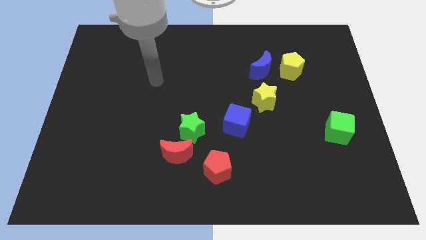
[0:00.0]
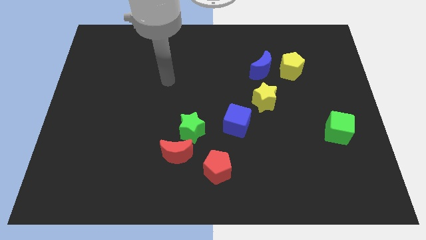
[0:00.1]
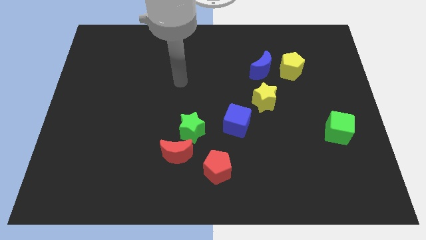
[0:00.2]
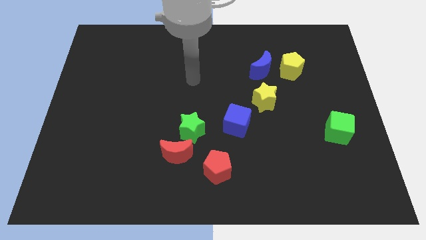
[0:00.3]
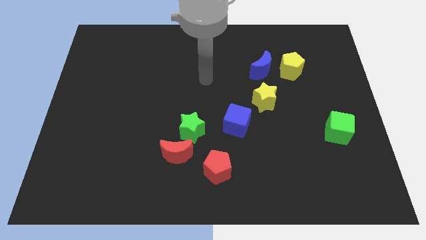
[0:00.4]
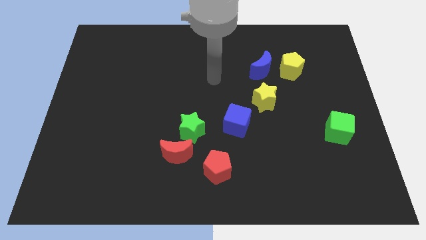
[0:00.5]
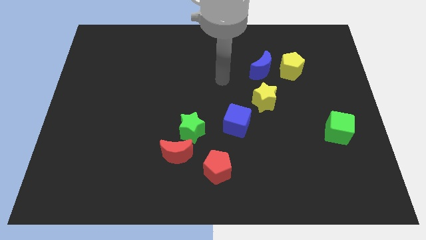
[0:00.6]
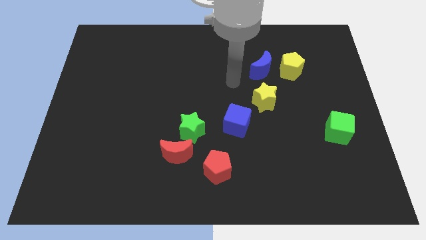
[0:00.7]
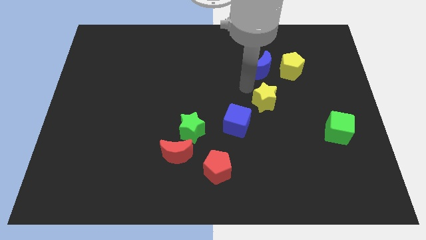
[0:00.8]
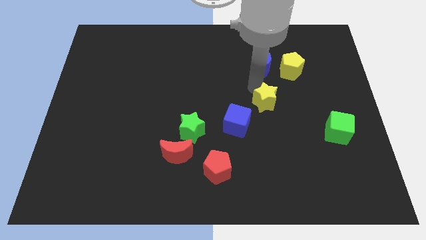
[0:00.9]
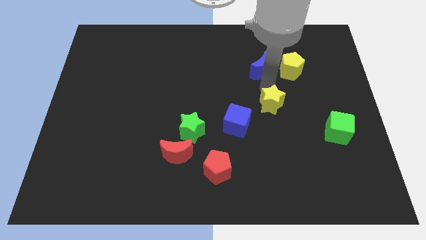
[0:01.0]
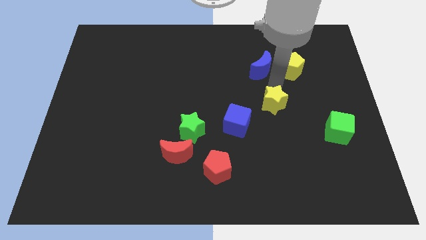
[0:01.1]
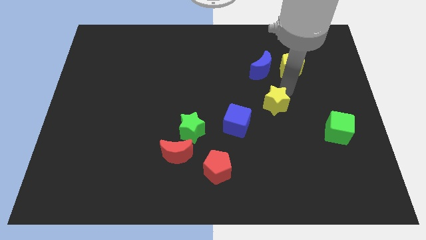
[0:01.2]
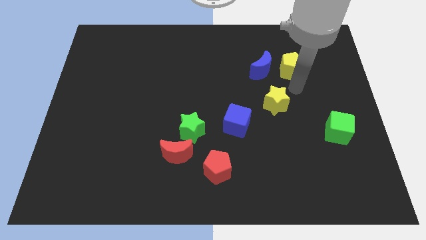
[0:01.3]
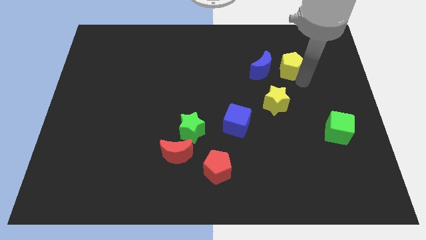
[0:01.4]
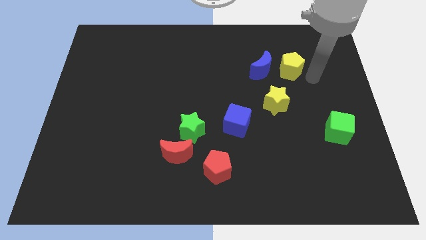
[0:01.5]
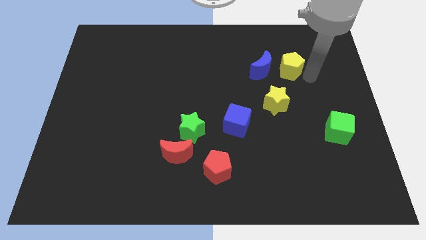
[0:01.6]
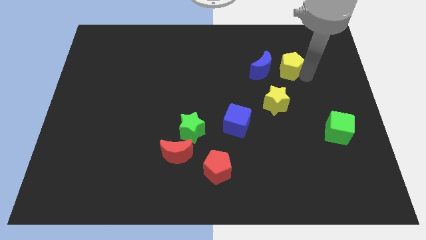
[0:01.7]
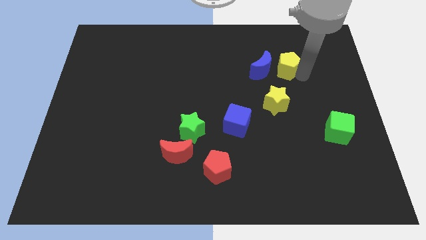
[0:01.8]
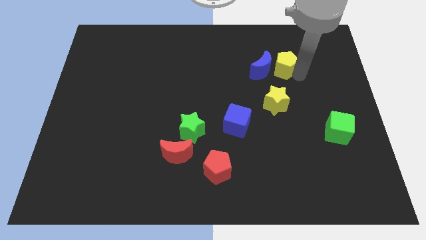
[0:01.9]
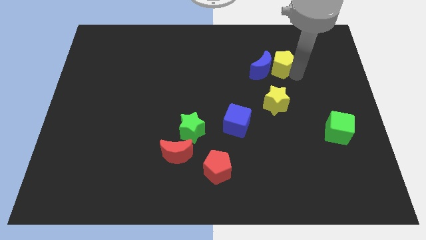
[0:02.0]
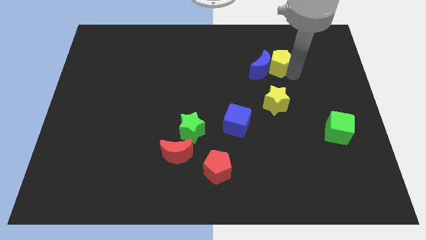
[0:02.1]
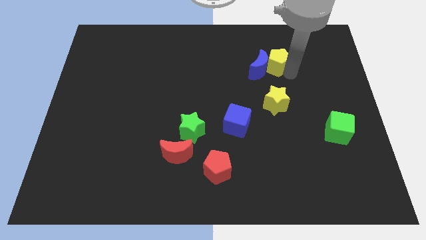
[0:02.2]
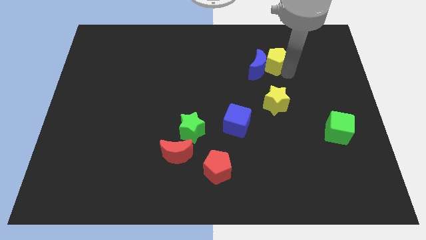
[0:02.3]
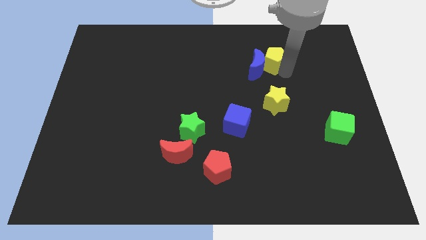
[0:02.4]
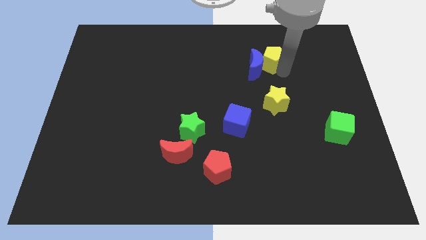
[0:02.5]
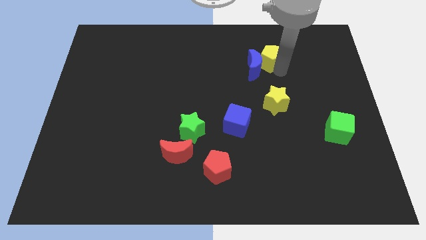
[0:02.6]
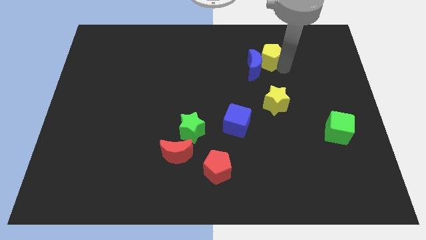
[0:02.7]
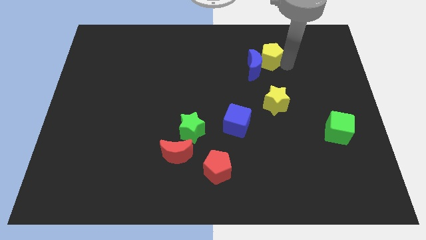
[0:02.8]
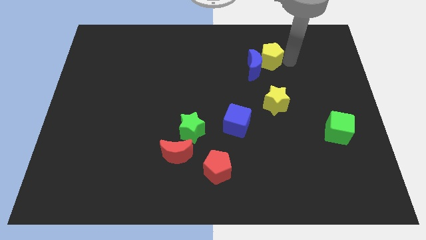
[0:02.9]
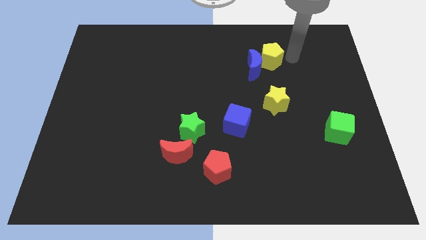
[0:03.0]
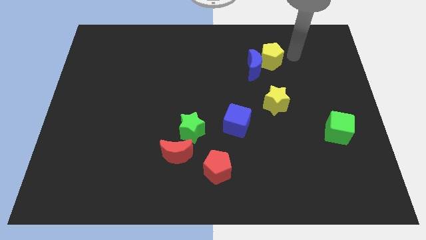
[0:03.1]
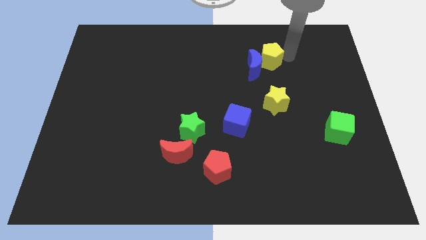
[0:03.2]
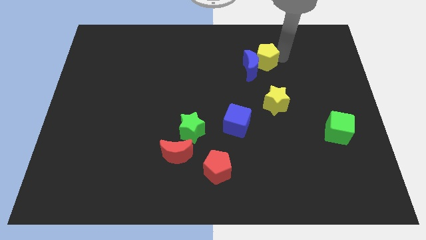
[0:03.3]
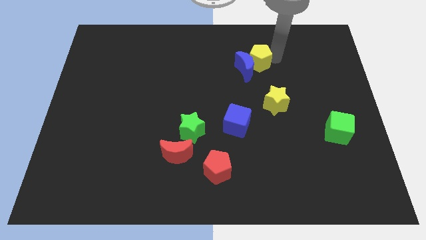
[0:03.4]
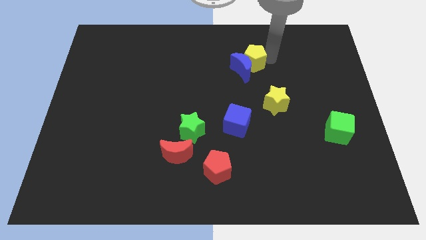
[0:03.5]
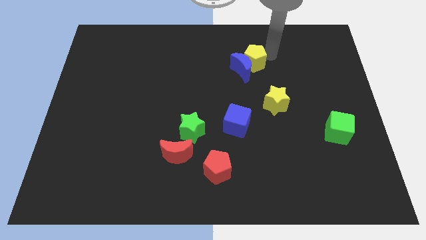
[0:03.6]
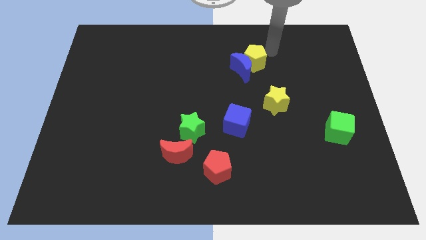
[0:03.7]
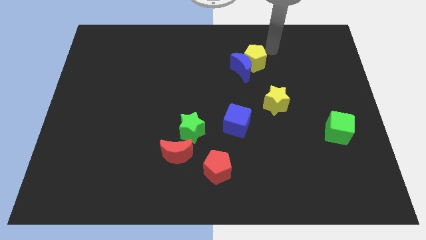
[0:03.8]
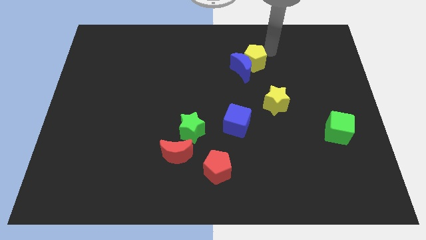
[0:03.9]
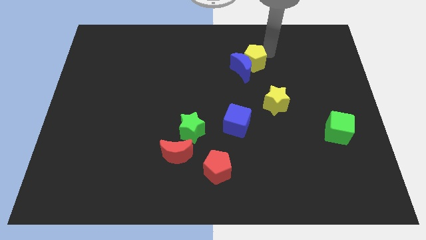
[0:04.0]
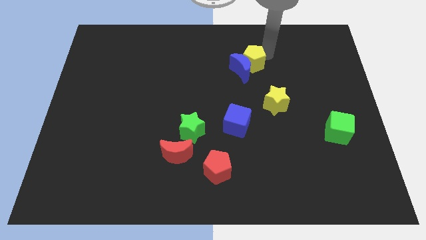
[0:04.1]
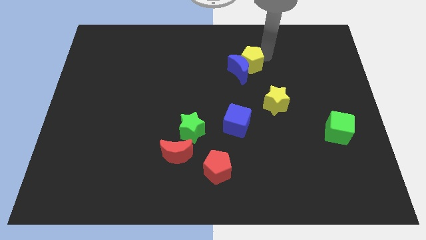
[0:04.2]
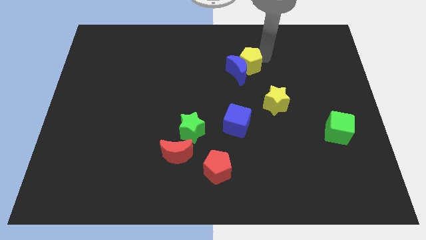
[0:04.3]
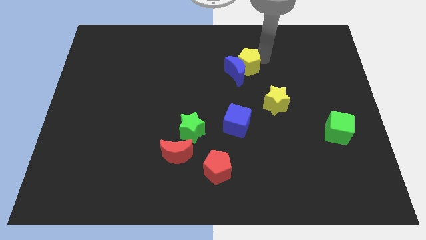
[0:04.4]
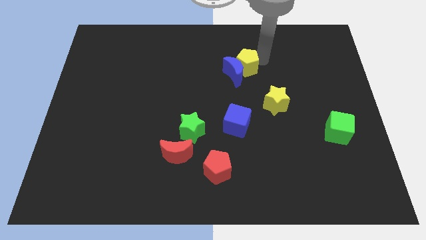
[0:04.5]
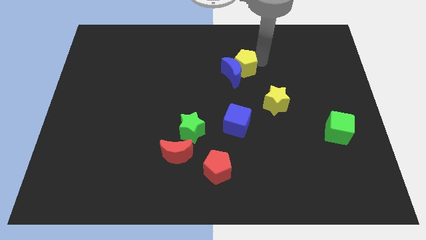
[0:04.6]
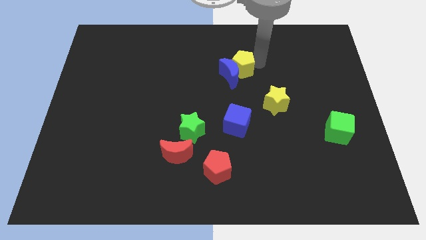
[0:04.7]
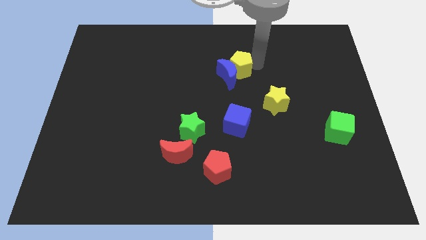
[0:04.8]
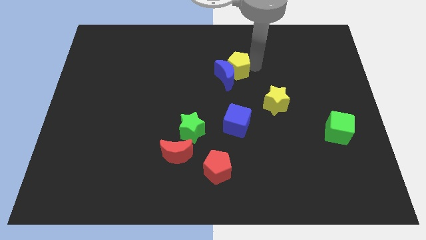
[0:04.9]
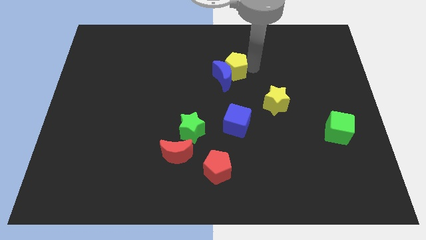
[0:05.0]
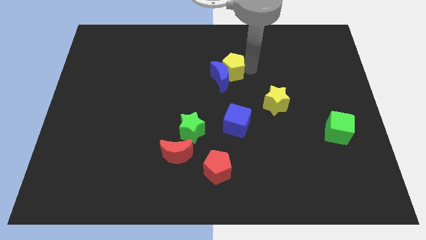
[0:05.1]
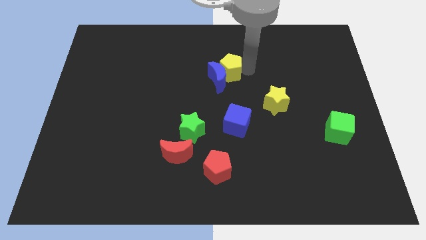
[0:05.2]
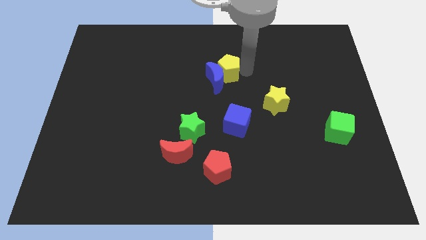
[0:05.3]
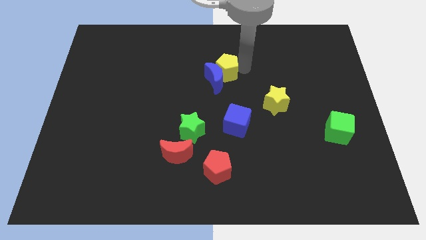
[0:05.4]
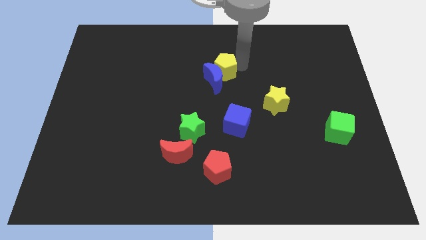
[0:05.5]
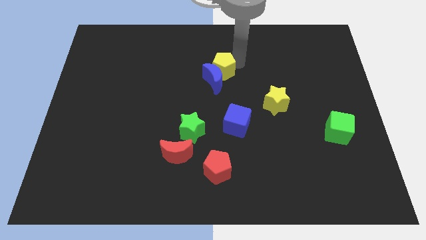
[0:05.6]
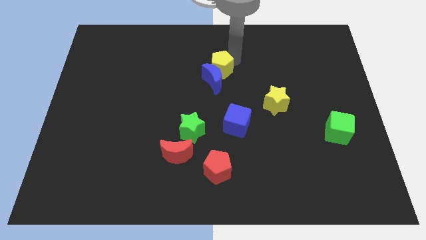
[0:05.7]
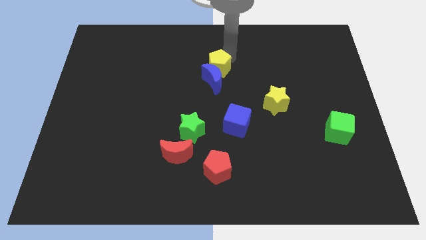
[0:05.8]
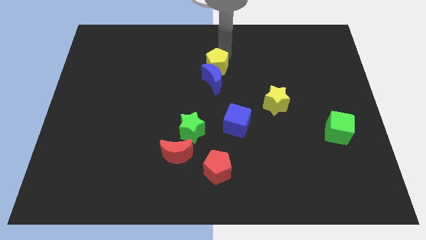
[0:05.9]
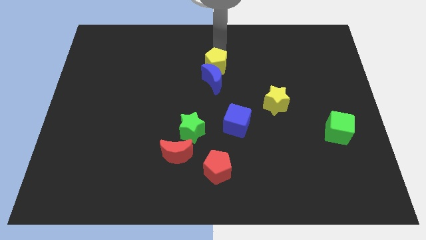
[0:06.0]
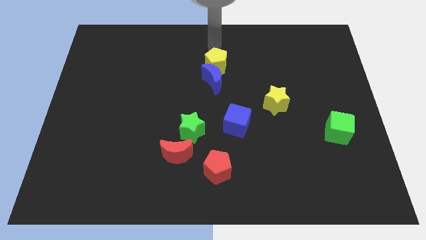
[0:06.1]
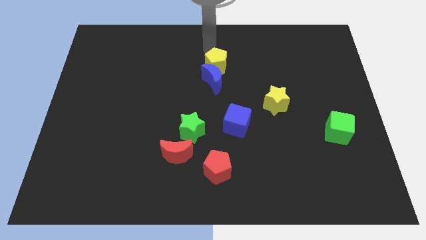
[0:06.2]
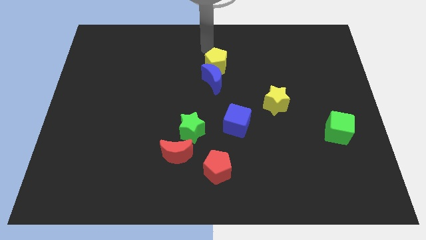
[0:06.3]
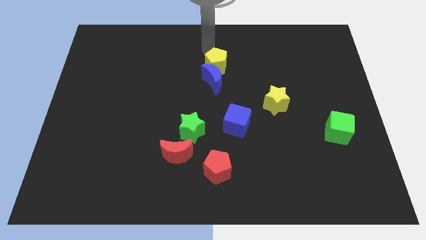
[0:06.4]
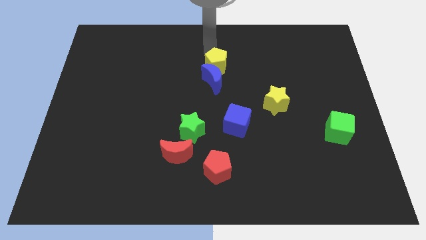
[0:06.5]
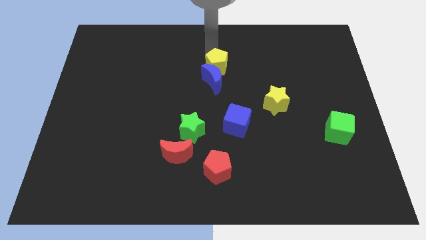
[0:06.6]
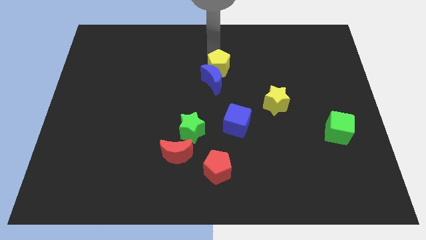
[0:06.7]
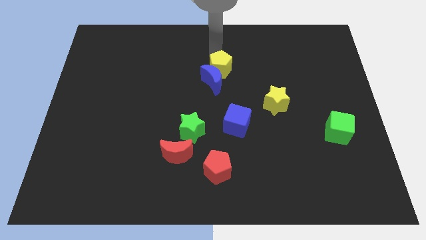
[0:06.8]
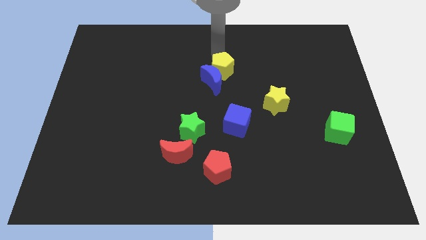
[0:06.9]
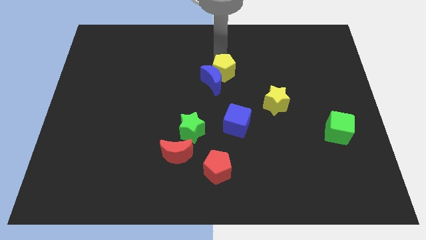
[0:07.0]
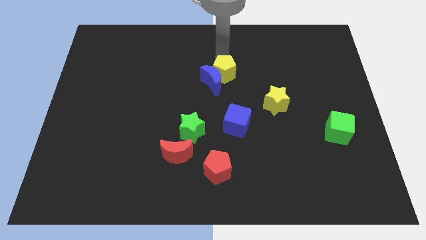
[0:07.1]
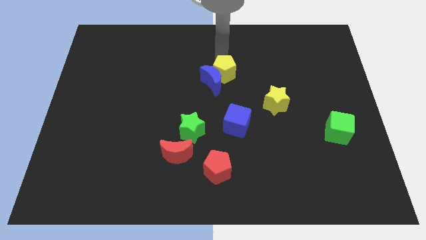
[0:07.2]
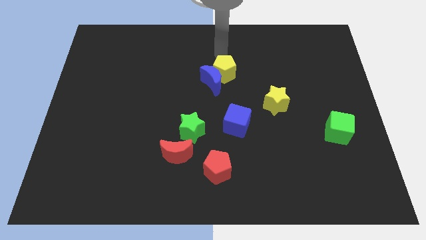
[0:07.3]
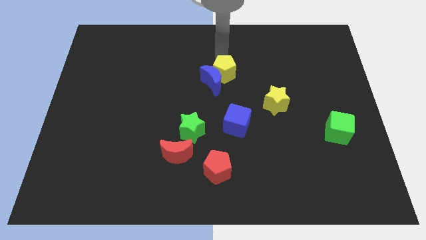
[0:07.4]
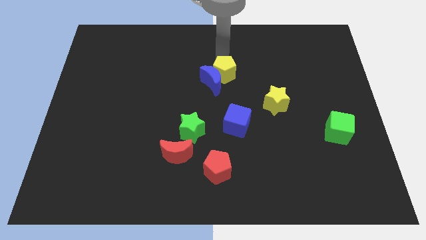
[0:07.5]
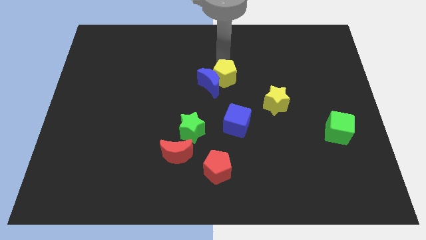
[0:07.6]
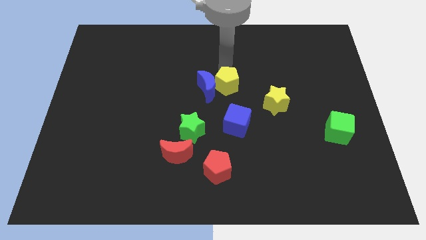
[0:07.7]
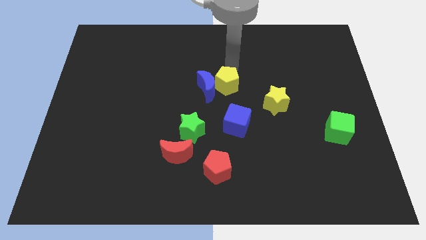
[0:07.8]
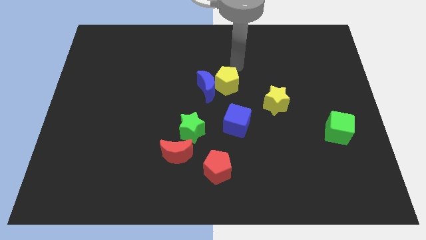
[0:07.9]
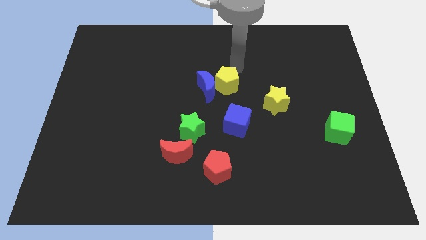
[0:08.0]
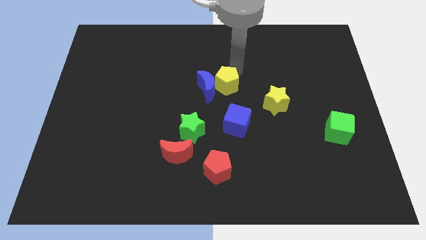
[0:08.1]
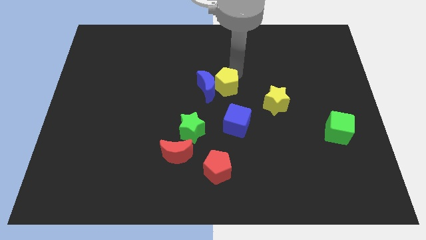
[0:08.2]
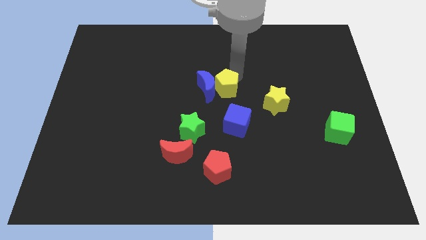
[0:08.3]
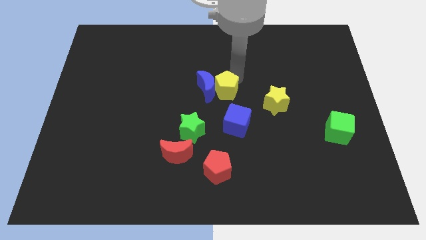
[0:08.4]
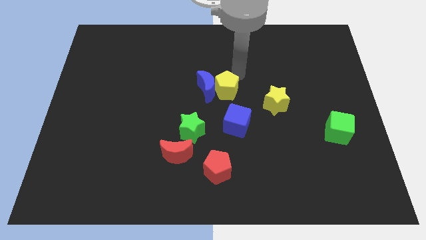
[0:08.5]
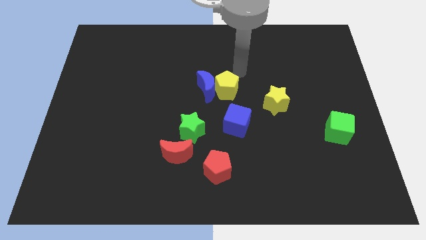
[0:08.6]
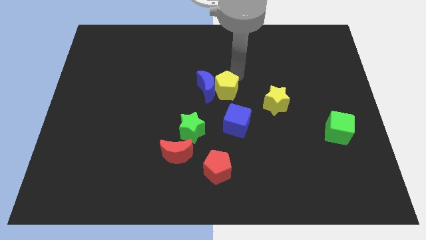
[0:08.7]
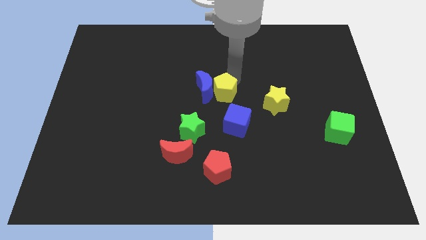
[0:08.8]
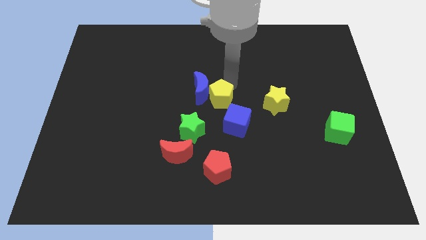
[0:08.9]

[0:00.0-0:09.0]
put the yellow pentagon diagonally up and to the left of the blue cube
